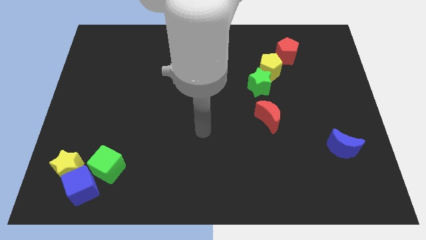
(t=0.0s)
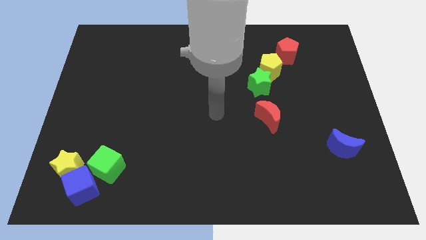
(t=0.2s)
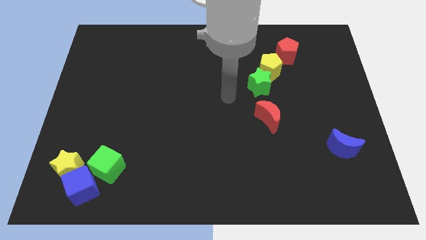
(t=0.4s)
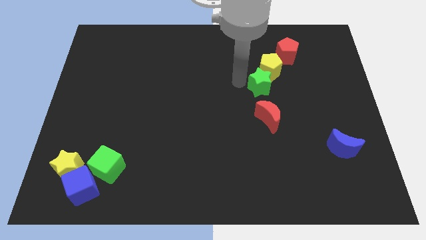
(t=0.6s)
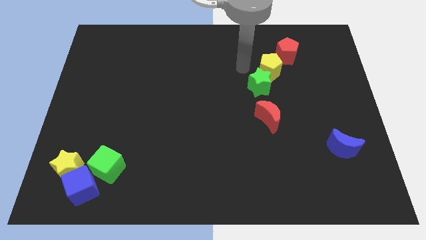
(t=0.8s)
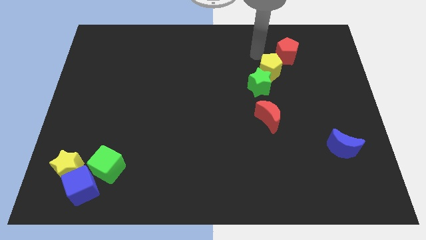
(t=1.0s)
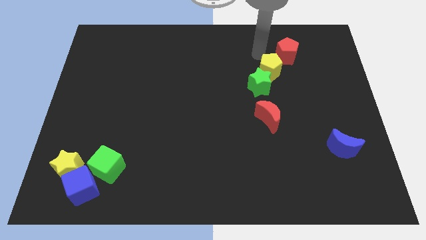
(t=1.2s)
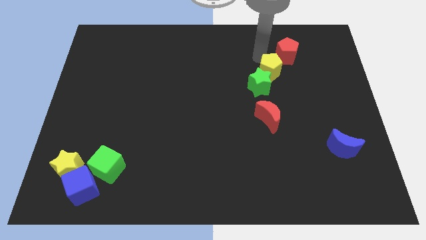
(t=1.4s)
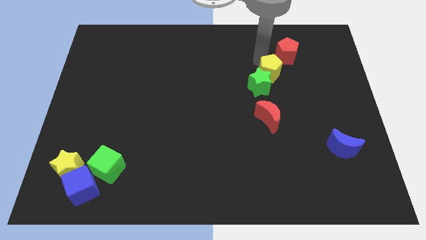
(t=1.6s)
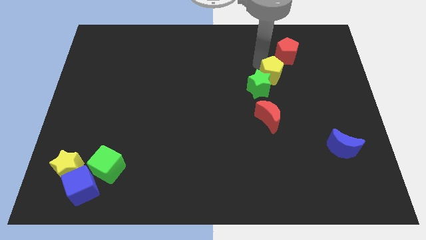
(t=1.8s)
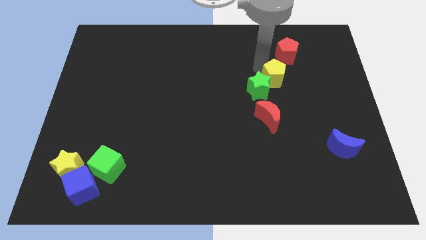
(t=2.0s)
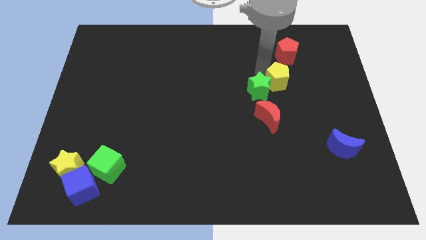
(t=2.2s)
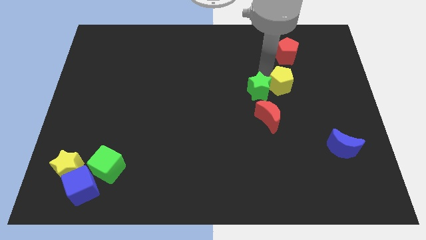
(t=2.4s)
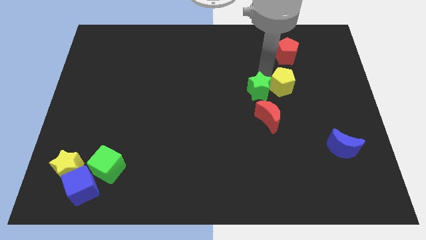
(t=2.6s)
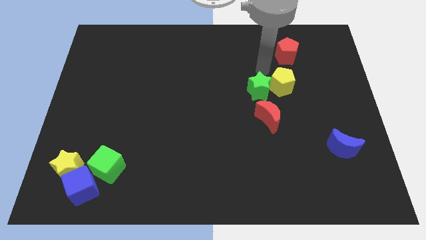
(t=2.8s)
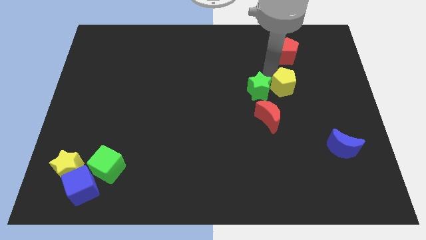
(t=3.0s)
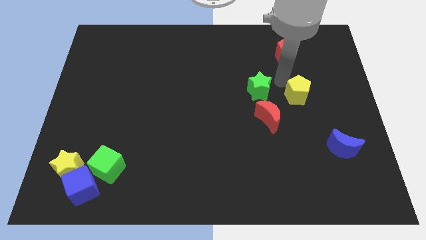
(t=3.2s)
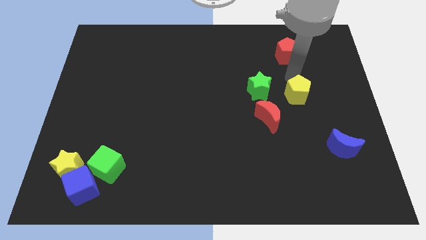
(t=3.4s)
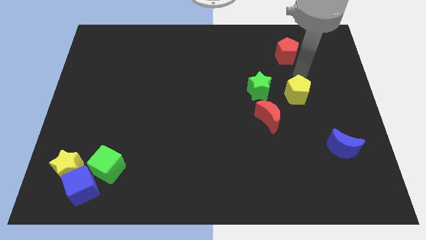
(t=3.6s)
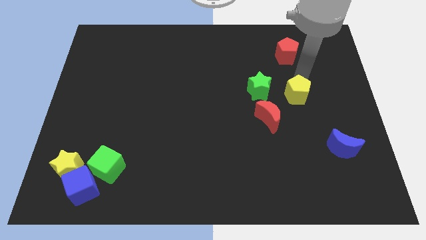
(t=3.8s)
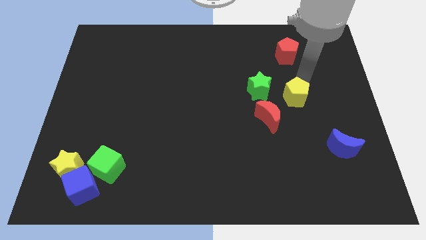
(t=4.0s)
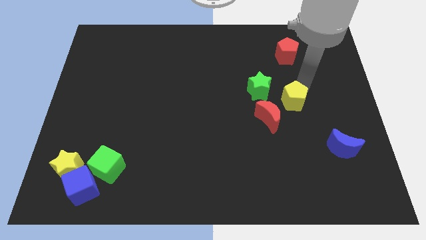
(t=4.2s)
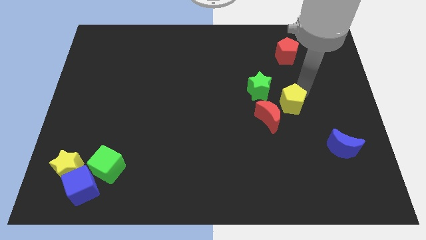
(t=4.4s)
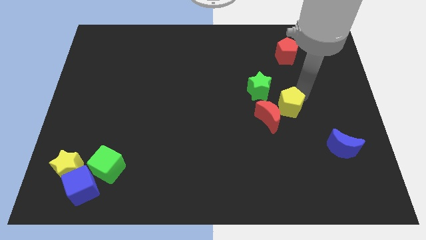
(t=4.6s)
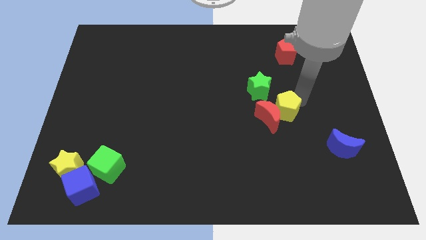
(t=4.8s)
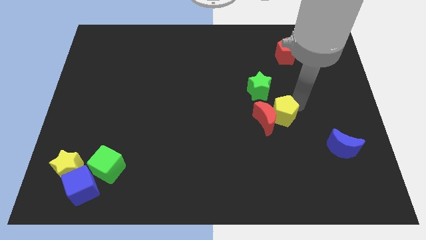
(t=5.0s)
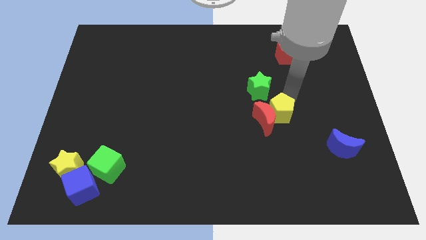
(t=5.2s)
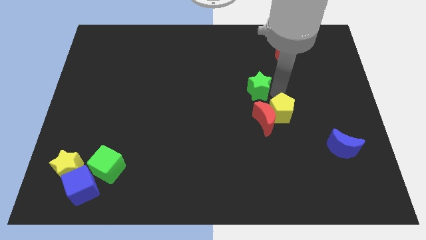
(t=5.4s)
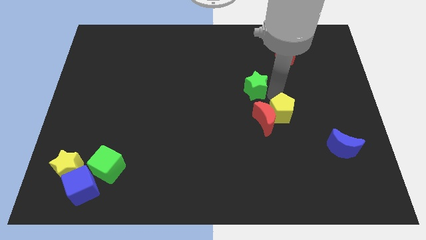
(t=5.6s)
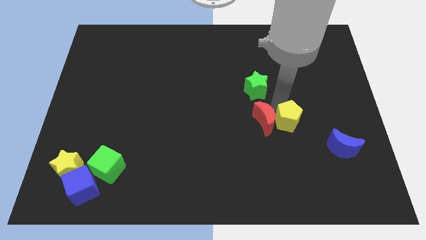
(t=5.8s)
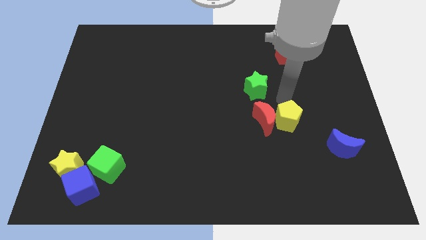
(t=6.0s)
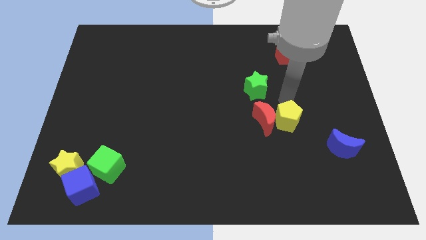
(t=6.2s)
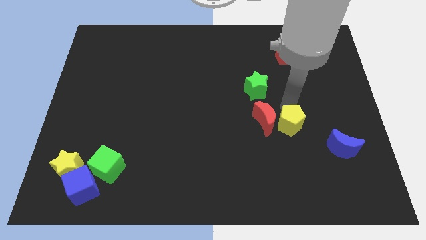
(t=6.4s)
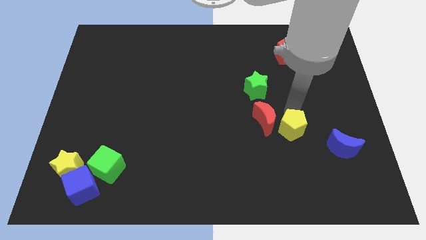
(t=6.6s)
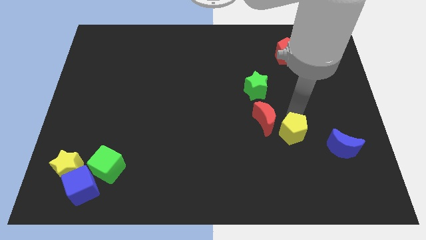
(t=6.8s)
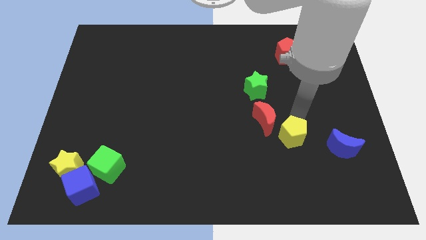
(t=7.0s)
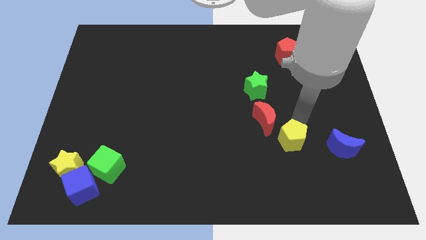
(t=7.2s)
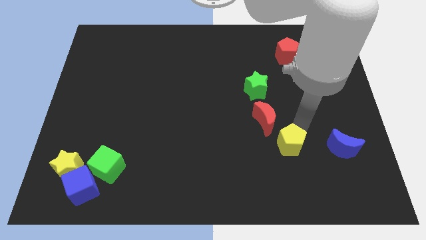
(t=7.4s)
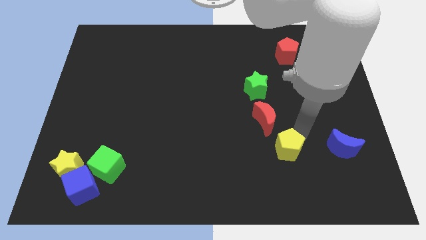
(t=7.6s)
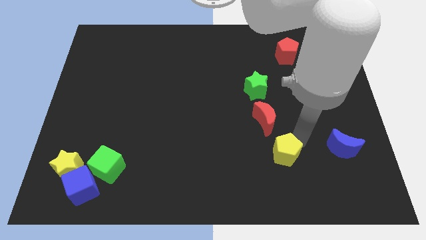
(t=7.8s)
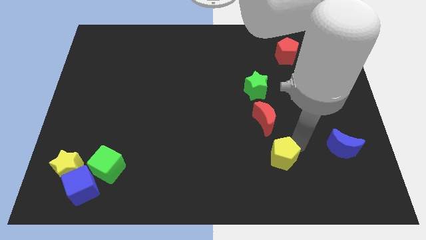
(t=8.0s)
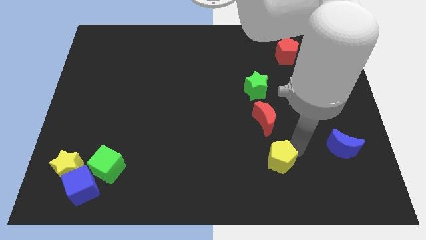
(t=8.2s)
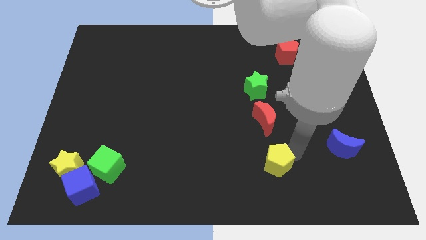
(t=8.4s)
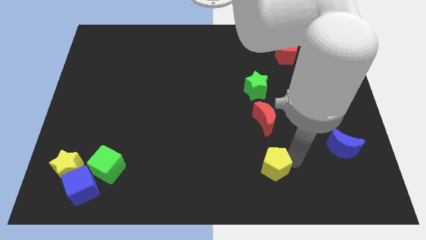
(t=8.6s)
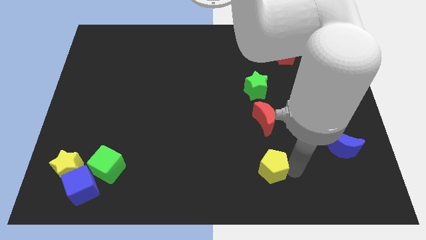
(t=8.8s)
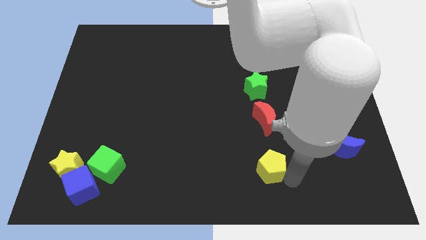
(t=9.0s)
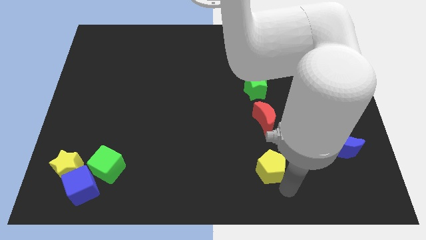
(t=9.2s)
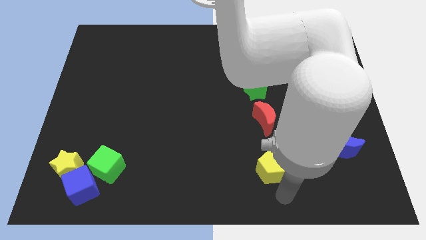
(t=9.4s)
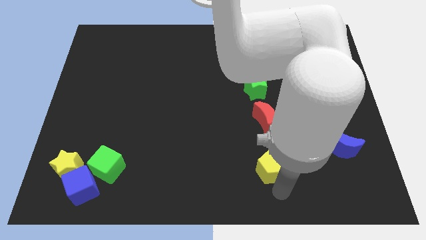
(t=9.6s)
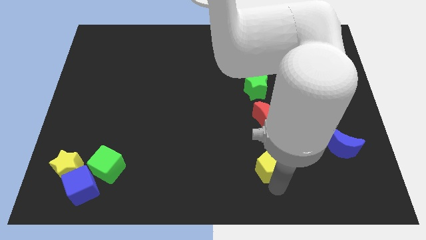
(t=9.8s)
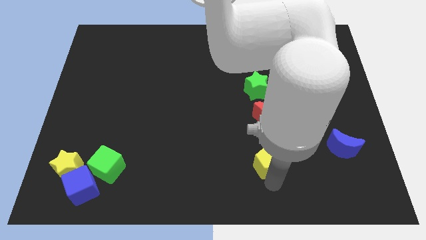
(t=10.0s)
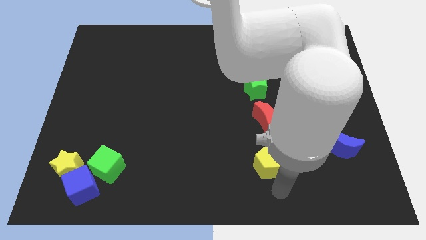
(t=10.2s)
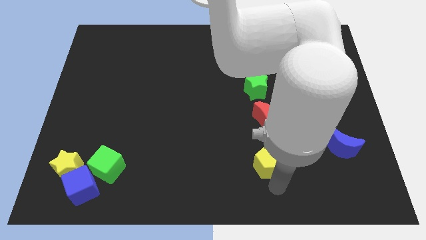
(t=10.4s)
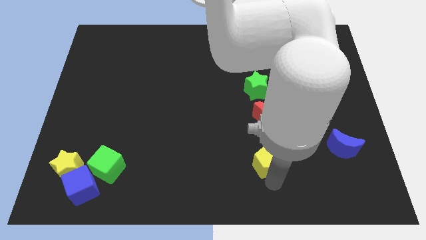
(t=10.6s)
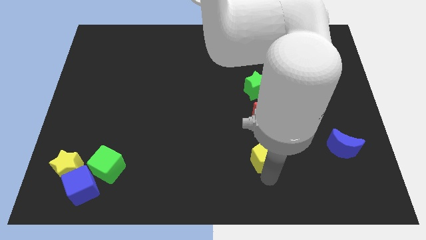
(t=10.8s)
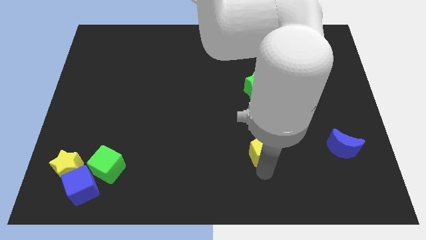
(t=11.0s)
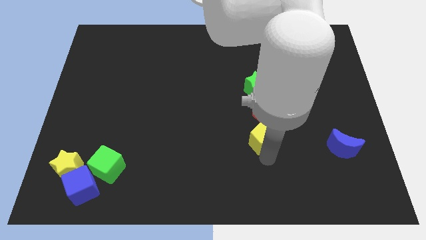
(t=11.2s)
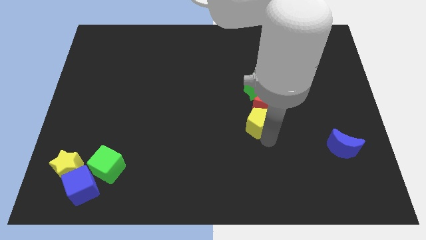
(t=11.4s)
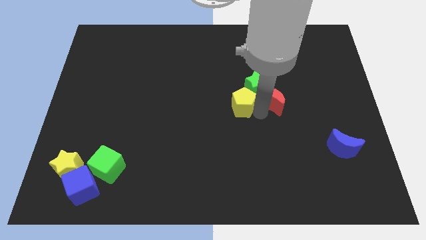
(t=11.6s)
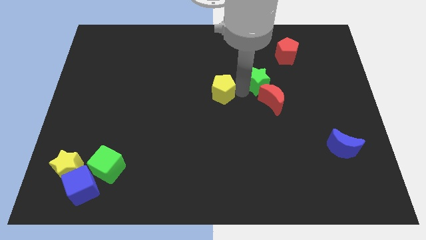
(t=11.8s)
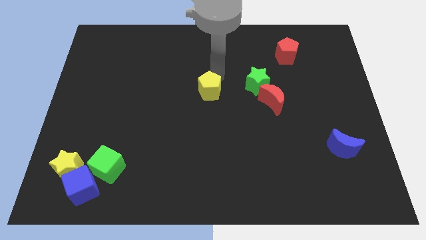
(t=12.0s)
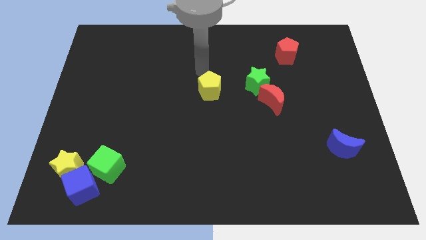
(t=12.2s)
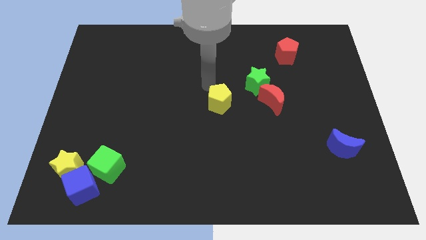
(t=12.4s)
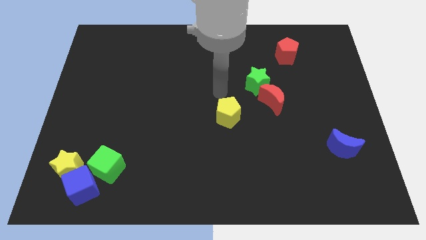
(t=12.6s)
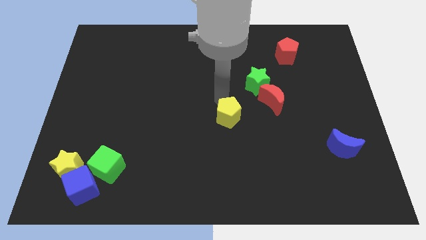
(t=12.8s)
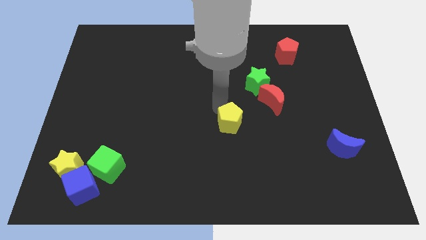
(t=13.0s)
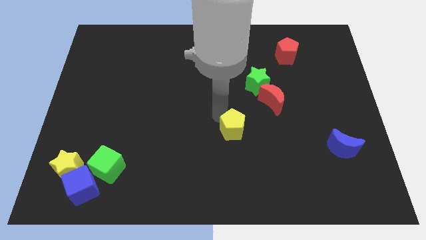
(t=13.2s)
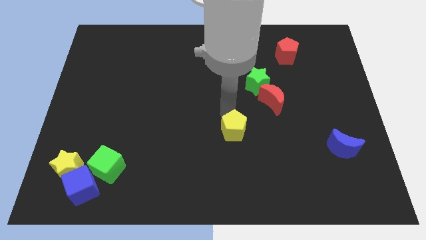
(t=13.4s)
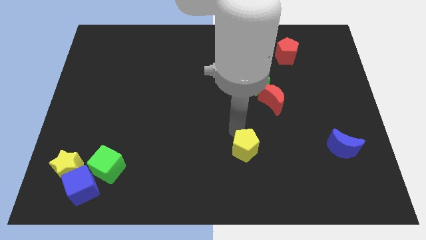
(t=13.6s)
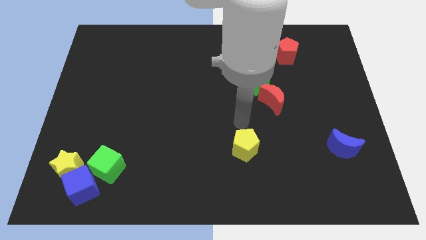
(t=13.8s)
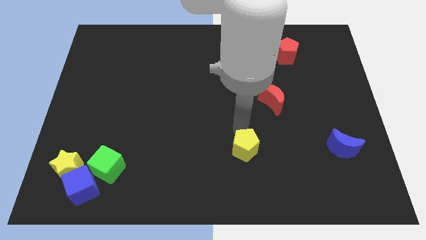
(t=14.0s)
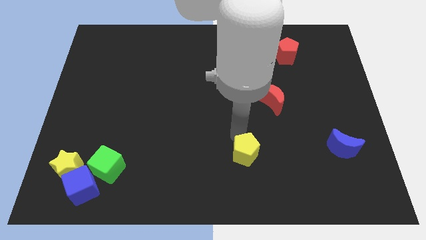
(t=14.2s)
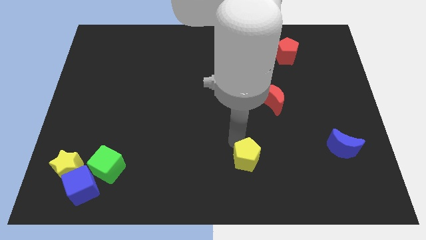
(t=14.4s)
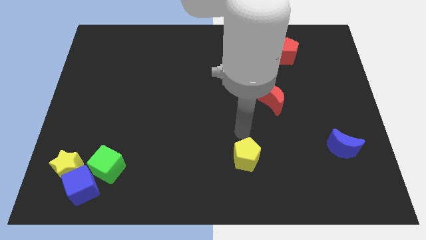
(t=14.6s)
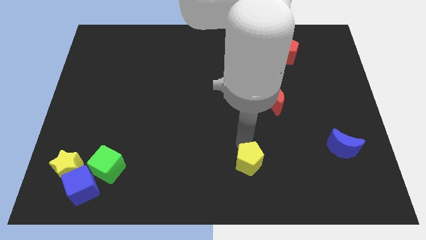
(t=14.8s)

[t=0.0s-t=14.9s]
push the yellow pentagon to the bottom side
